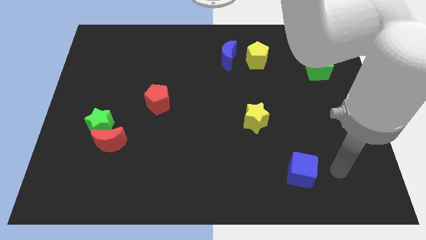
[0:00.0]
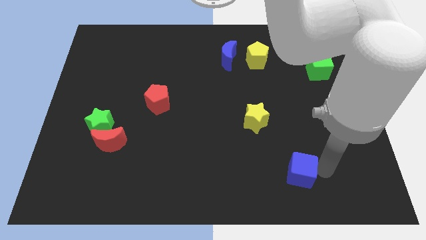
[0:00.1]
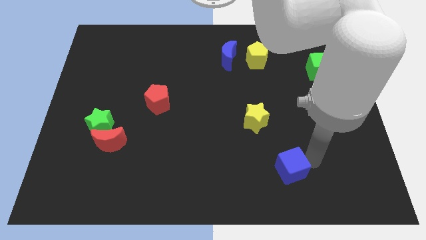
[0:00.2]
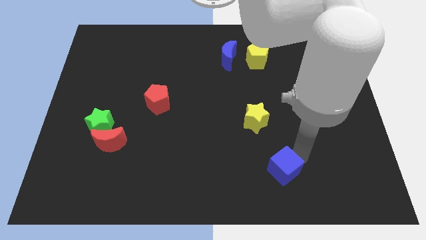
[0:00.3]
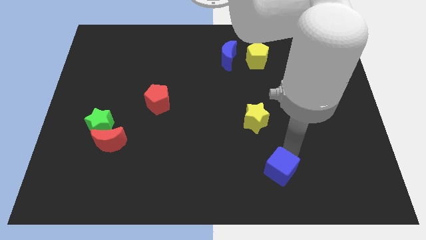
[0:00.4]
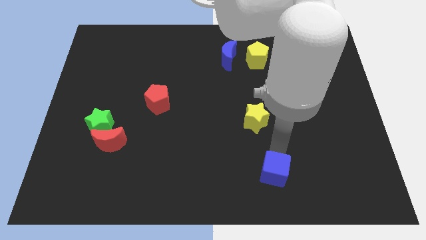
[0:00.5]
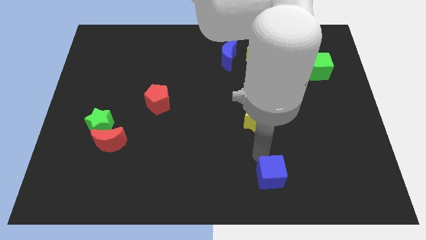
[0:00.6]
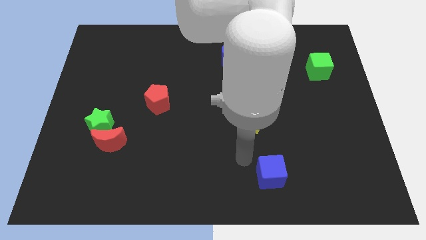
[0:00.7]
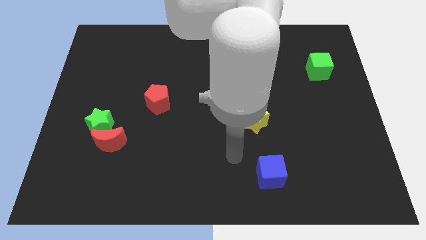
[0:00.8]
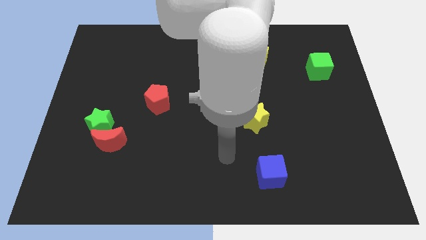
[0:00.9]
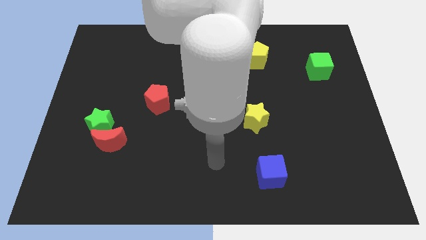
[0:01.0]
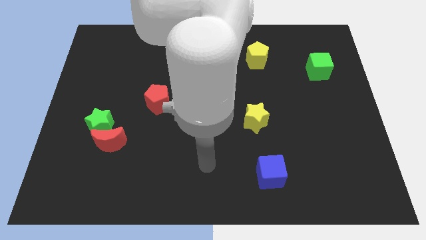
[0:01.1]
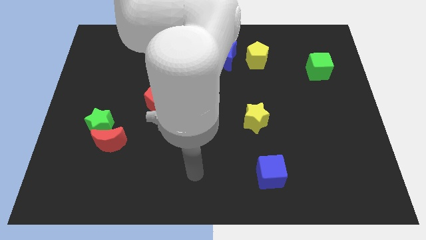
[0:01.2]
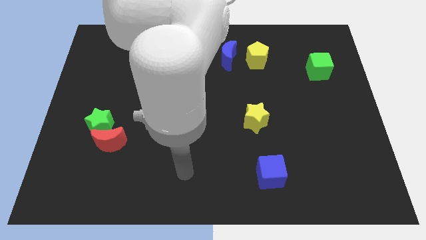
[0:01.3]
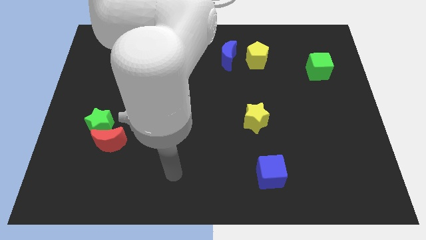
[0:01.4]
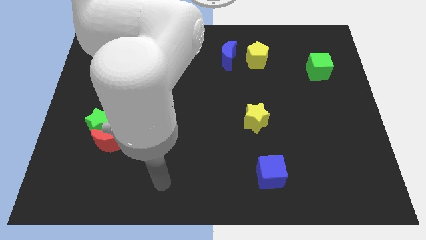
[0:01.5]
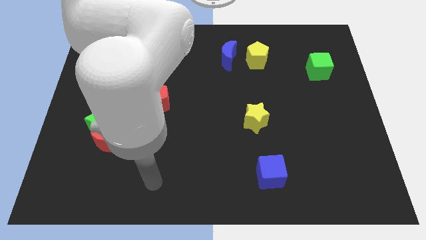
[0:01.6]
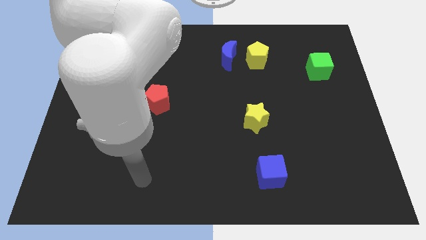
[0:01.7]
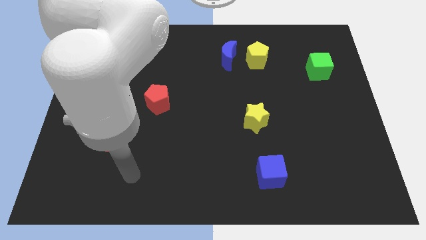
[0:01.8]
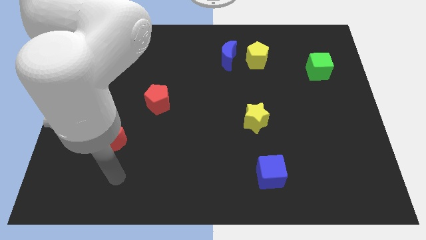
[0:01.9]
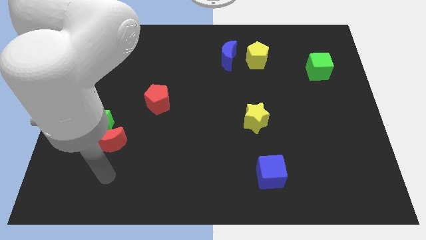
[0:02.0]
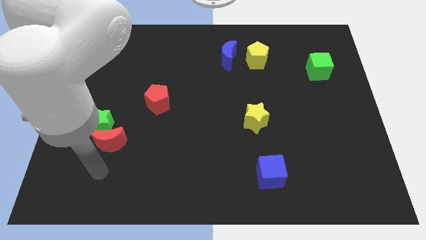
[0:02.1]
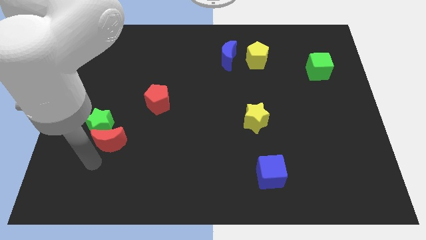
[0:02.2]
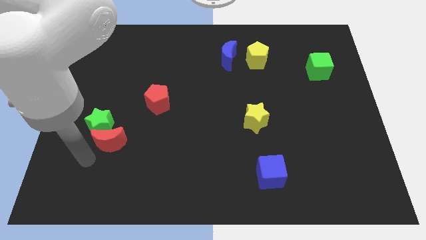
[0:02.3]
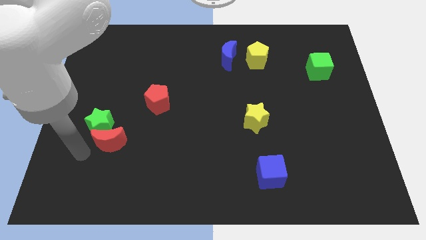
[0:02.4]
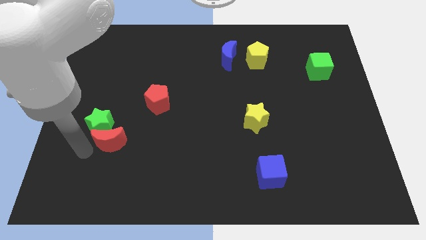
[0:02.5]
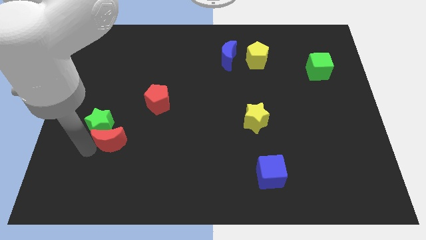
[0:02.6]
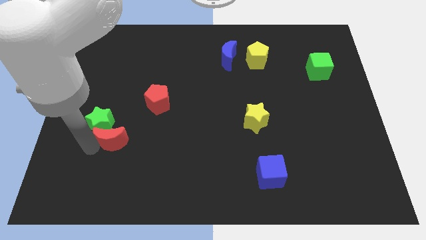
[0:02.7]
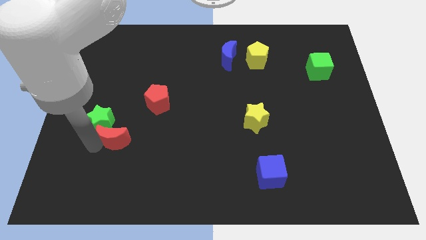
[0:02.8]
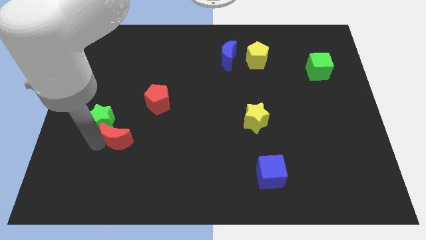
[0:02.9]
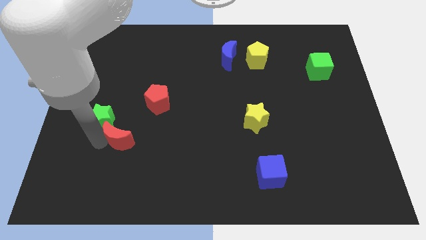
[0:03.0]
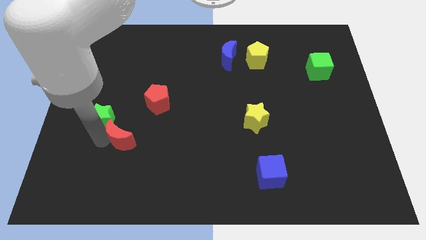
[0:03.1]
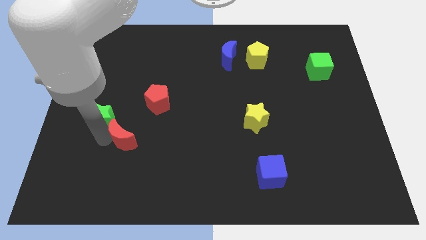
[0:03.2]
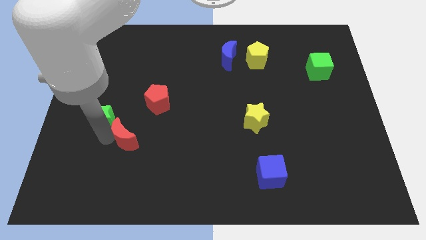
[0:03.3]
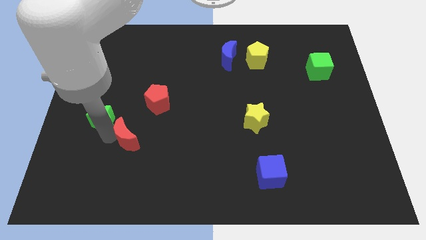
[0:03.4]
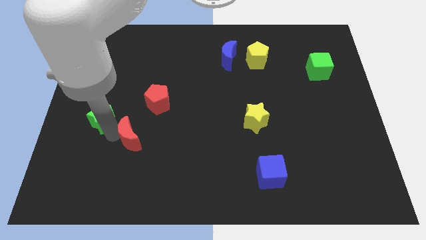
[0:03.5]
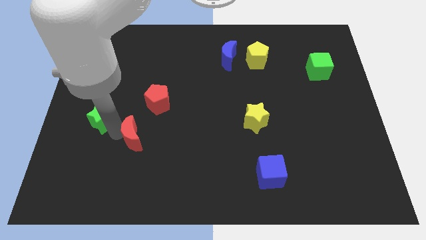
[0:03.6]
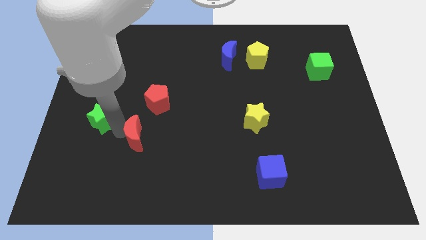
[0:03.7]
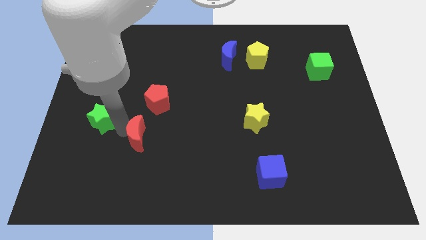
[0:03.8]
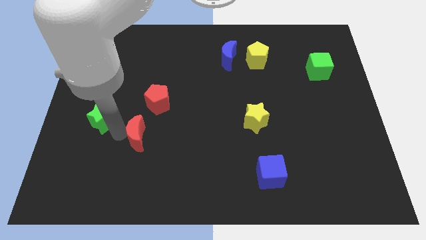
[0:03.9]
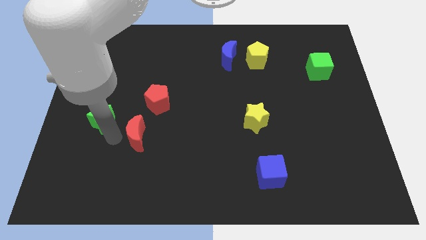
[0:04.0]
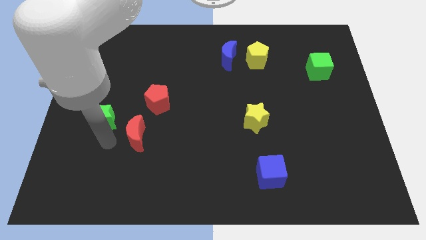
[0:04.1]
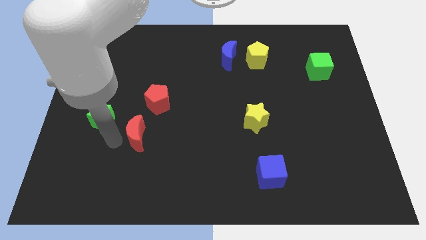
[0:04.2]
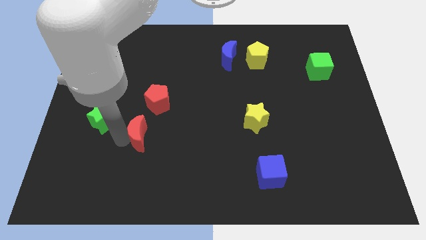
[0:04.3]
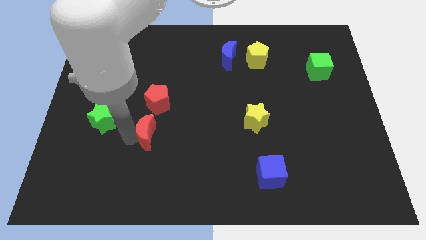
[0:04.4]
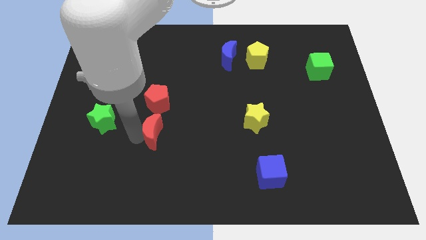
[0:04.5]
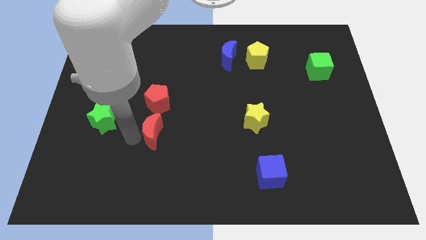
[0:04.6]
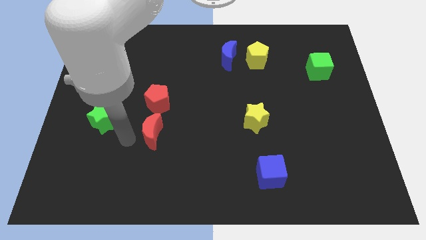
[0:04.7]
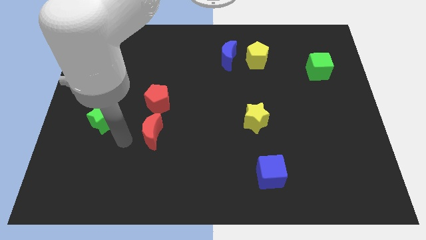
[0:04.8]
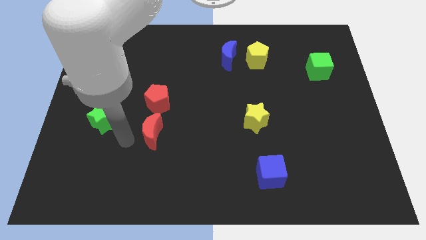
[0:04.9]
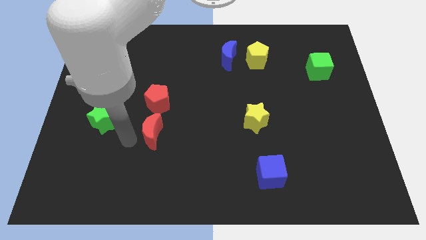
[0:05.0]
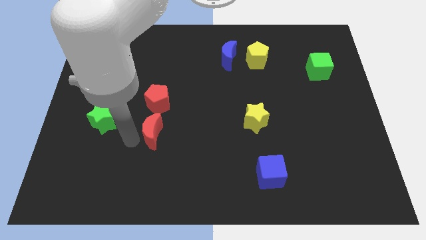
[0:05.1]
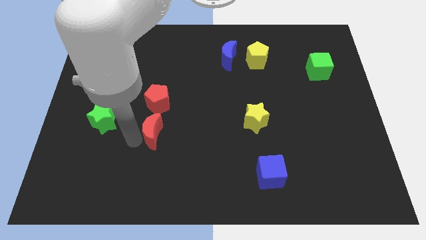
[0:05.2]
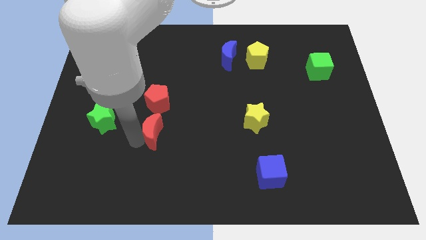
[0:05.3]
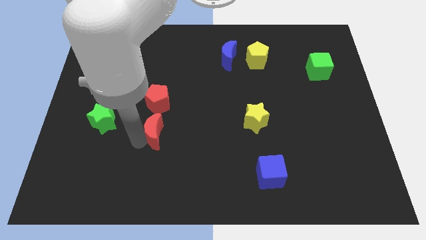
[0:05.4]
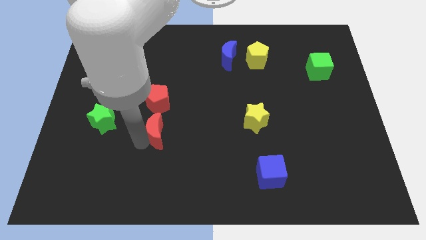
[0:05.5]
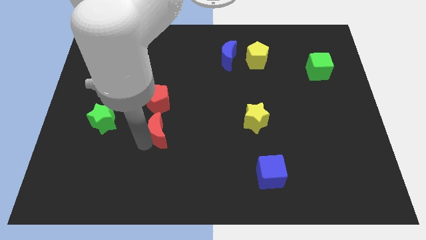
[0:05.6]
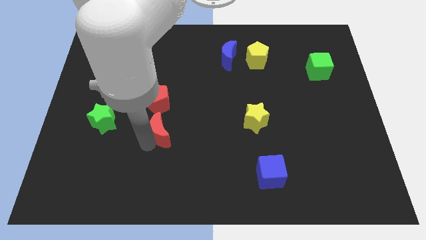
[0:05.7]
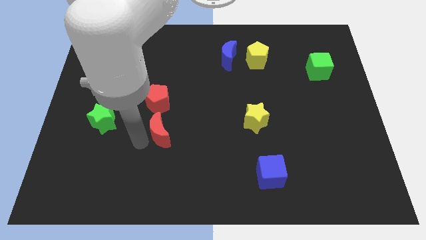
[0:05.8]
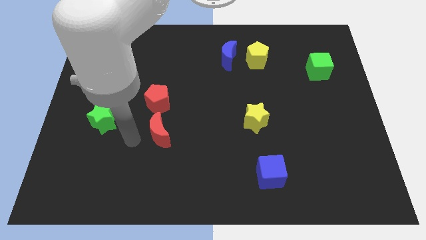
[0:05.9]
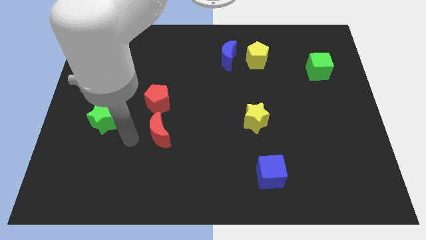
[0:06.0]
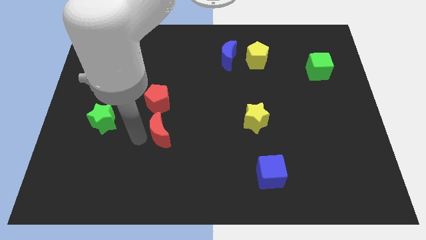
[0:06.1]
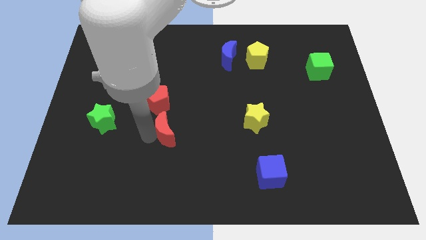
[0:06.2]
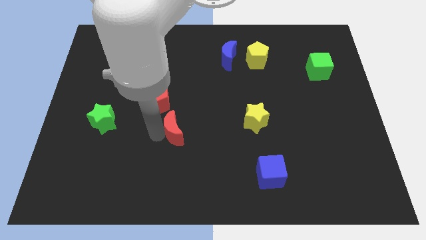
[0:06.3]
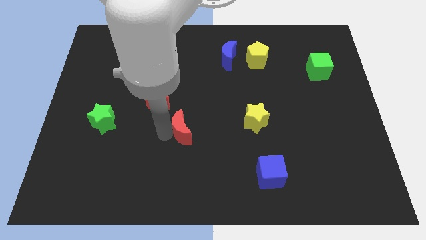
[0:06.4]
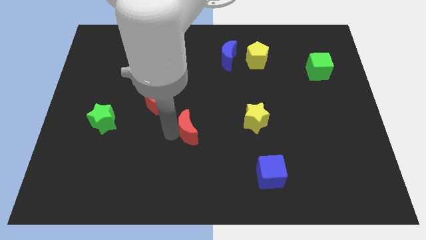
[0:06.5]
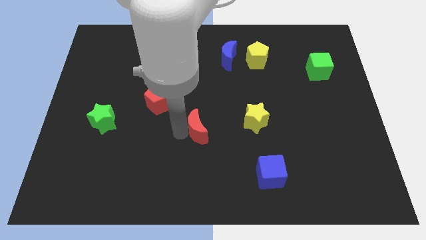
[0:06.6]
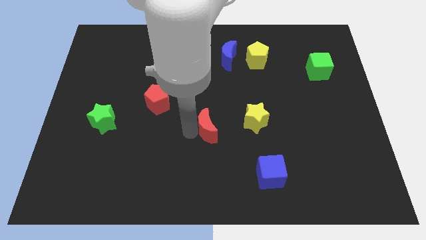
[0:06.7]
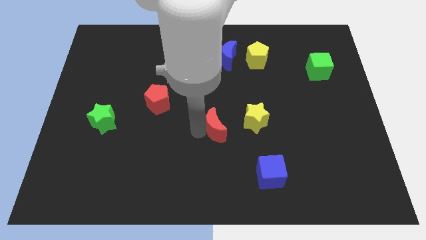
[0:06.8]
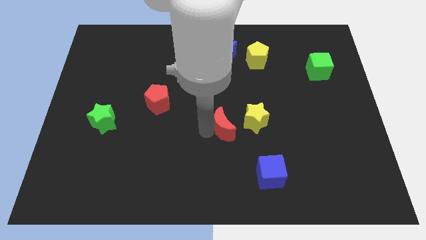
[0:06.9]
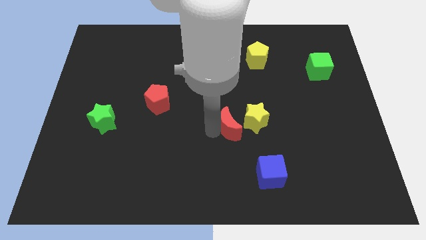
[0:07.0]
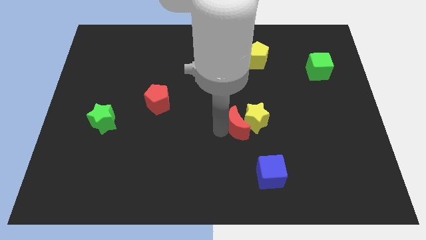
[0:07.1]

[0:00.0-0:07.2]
push the red moon next to the yellow star

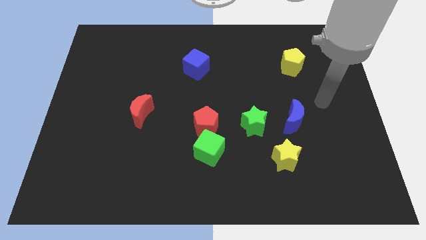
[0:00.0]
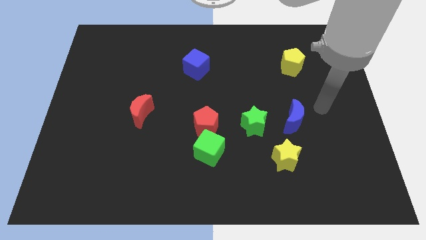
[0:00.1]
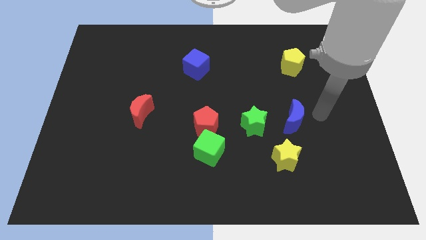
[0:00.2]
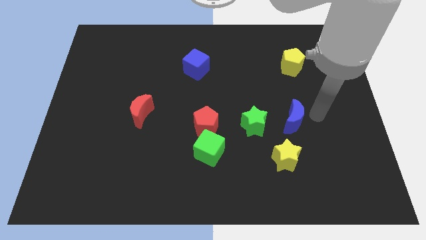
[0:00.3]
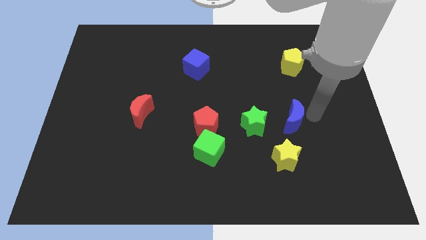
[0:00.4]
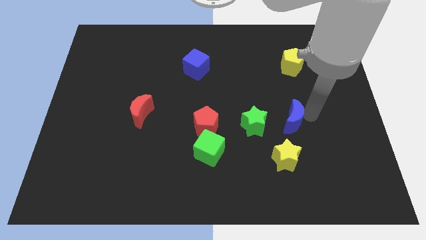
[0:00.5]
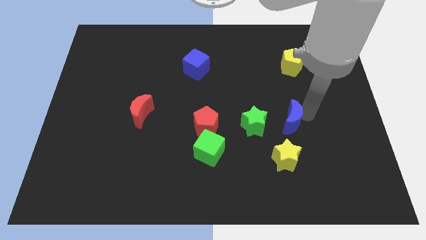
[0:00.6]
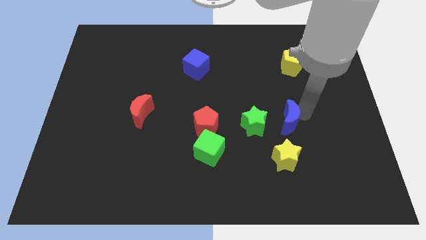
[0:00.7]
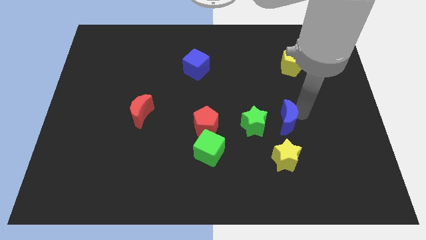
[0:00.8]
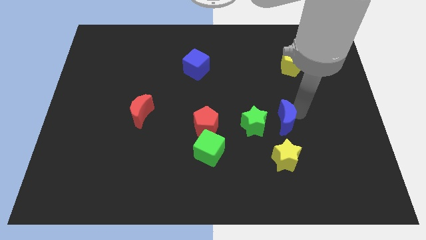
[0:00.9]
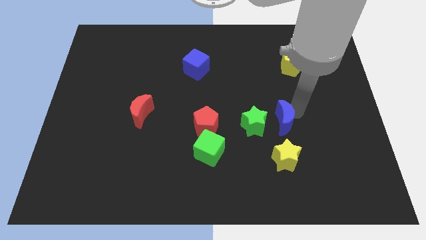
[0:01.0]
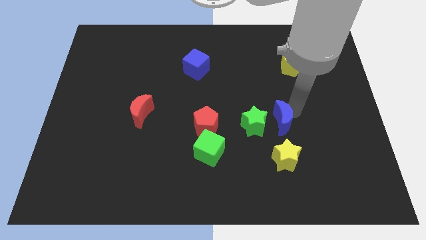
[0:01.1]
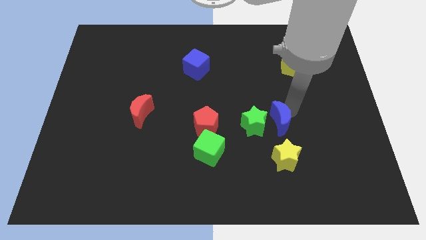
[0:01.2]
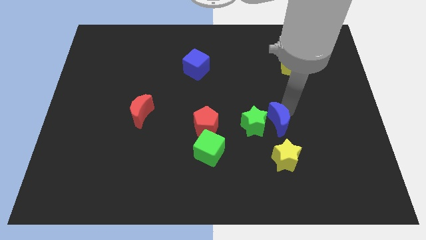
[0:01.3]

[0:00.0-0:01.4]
slide the blue moon to the green star
